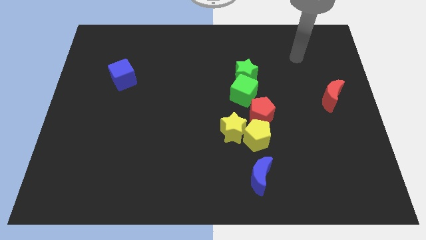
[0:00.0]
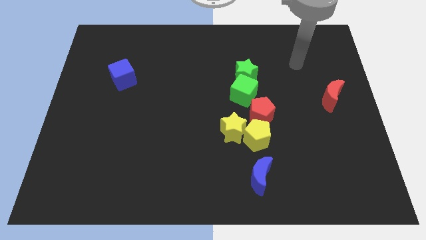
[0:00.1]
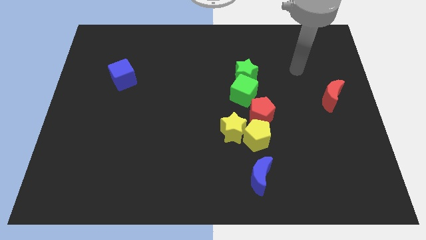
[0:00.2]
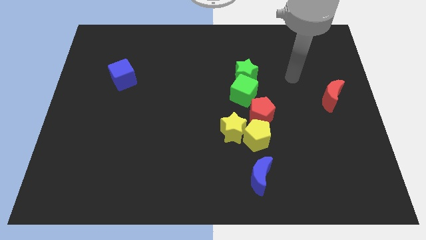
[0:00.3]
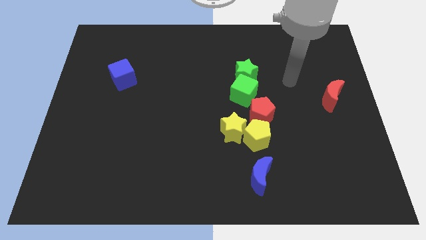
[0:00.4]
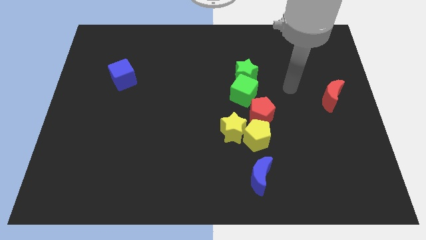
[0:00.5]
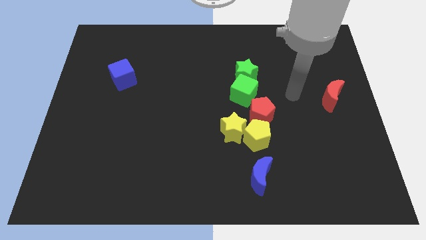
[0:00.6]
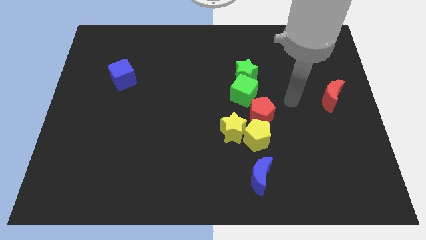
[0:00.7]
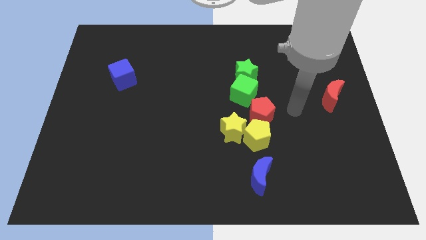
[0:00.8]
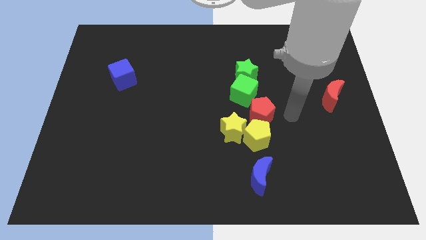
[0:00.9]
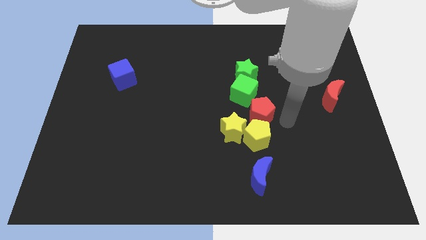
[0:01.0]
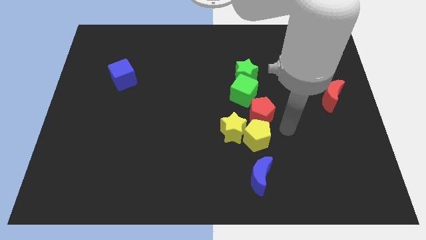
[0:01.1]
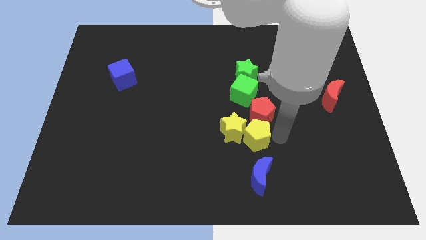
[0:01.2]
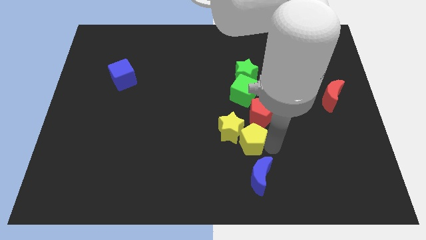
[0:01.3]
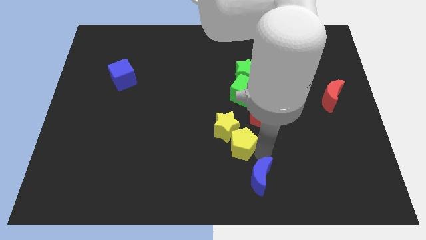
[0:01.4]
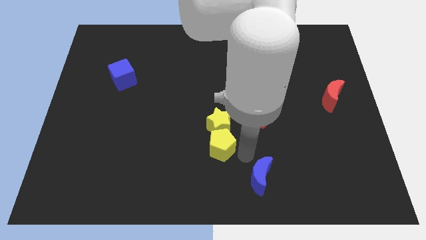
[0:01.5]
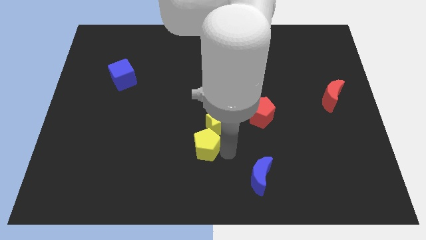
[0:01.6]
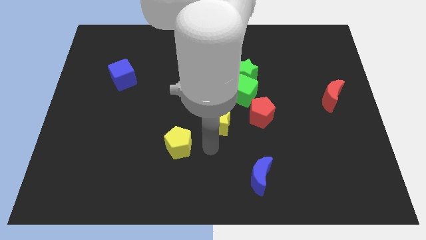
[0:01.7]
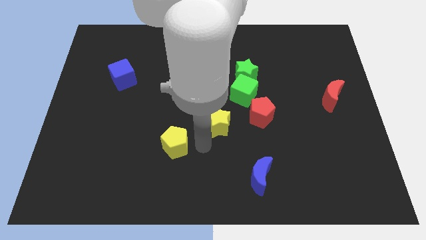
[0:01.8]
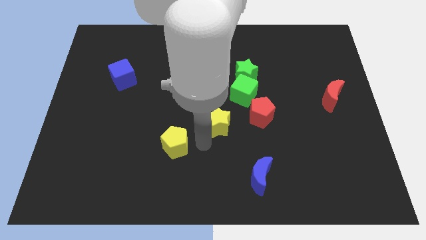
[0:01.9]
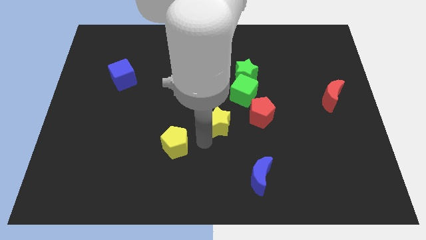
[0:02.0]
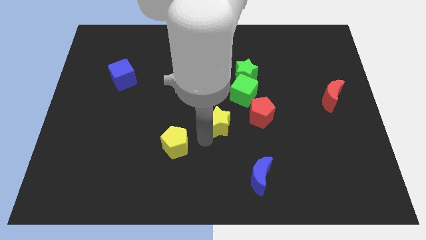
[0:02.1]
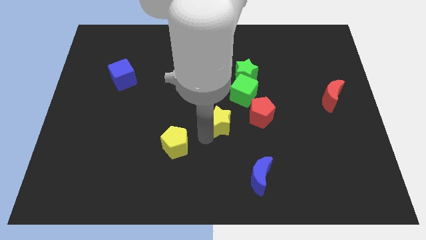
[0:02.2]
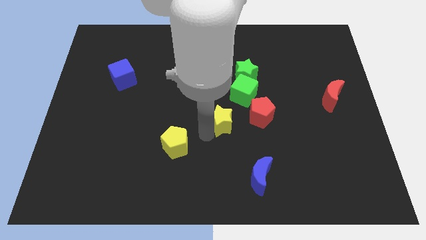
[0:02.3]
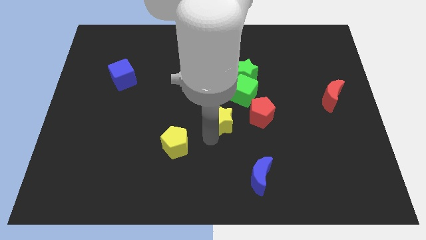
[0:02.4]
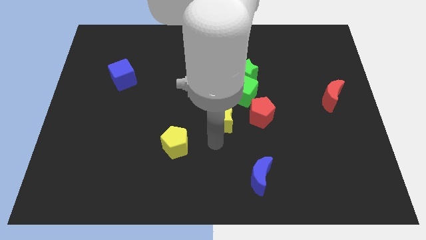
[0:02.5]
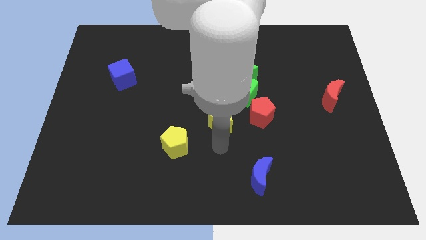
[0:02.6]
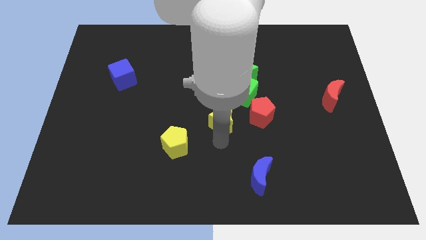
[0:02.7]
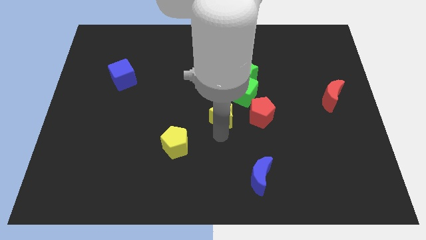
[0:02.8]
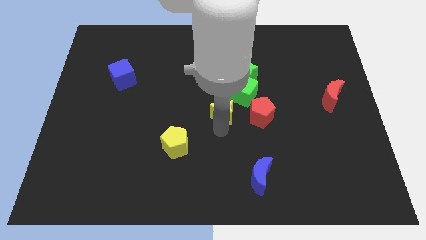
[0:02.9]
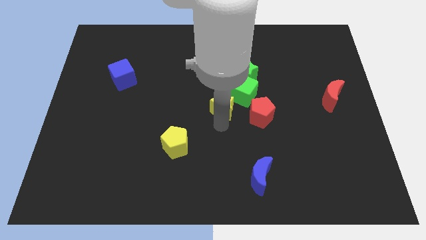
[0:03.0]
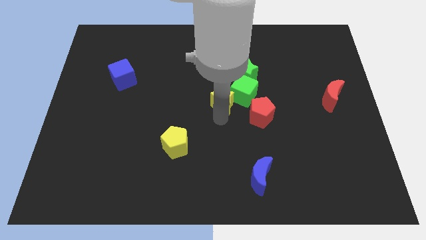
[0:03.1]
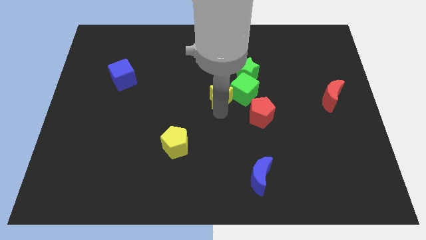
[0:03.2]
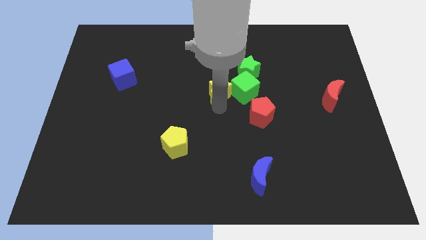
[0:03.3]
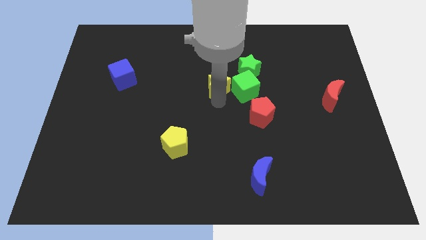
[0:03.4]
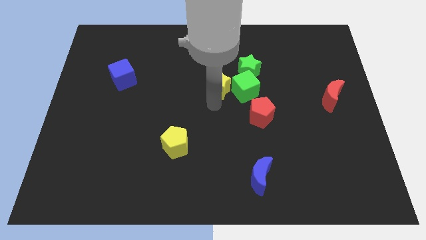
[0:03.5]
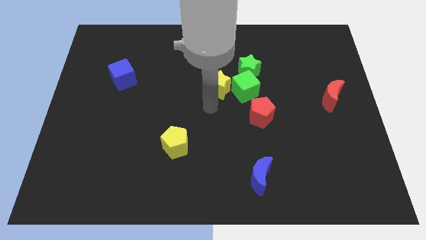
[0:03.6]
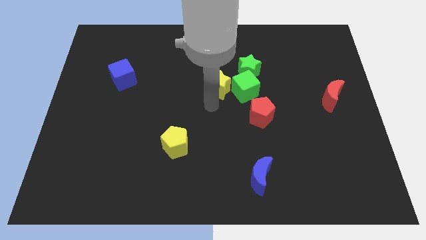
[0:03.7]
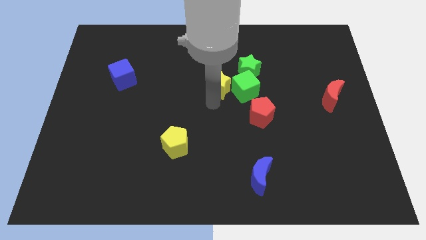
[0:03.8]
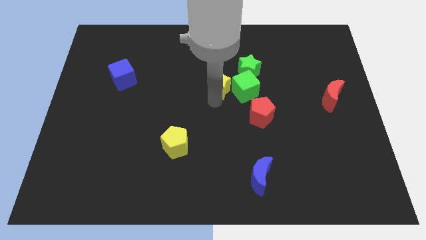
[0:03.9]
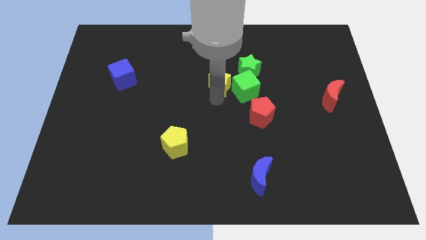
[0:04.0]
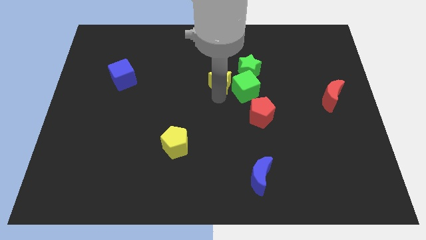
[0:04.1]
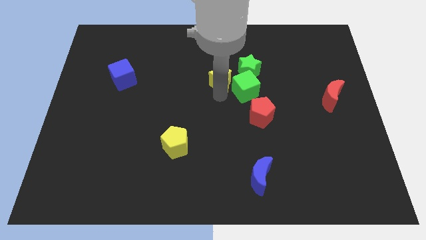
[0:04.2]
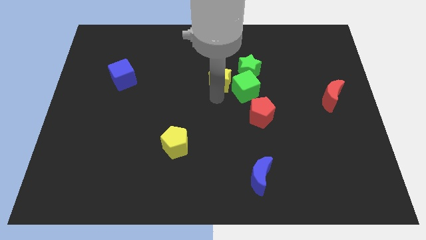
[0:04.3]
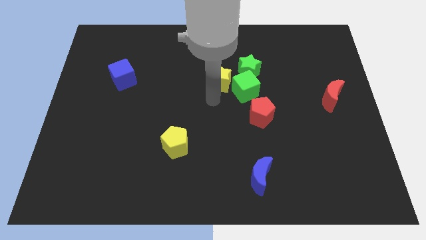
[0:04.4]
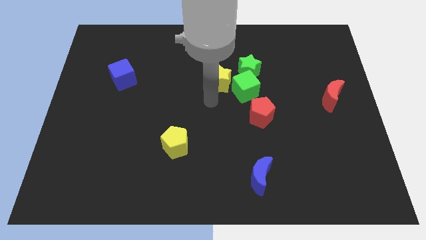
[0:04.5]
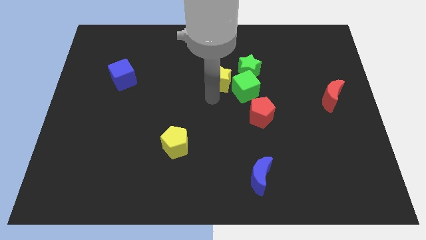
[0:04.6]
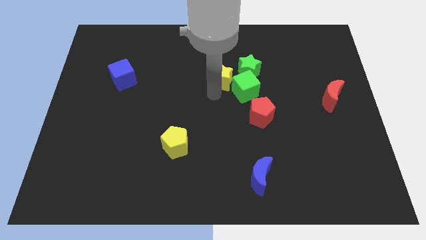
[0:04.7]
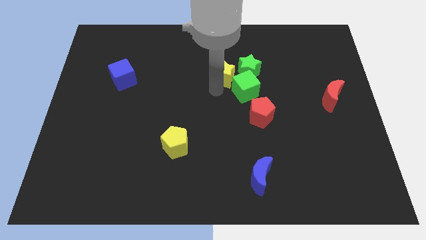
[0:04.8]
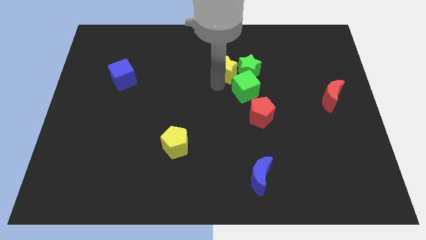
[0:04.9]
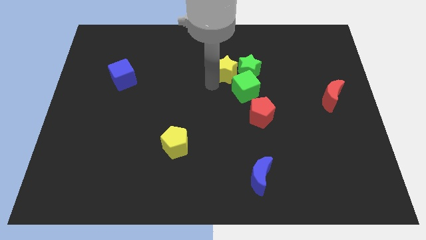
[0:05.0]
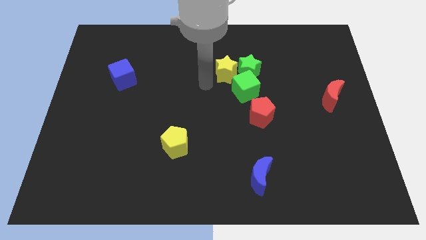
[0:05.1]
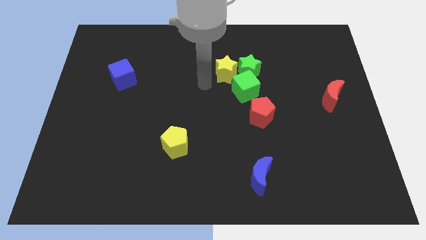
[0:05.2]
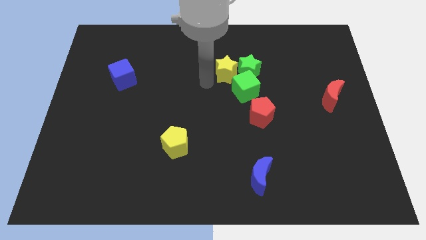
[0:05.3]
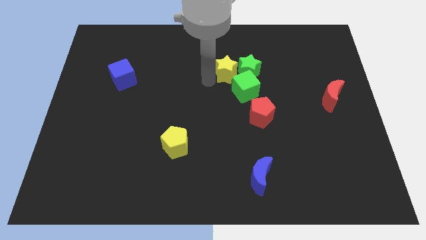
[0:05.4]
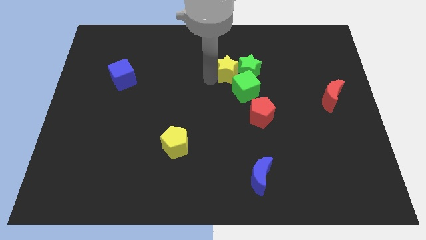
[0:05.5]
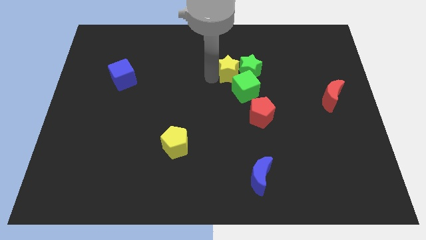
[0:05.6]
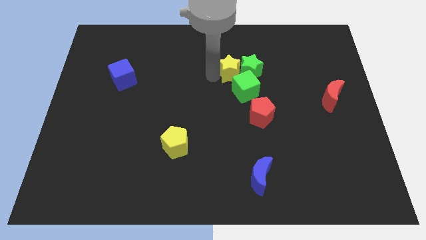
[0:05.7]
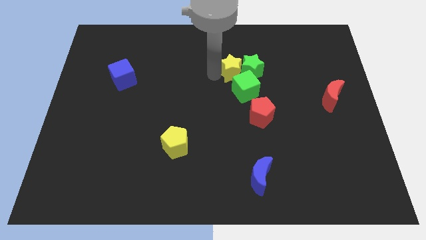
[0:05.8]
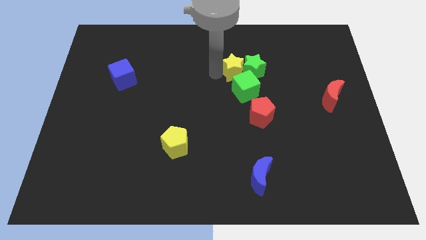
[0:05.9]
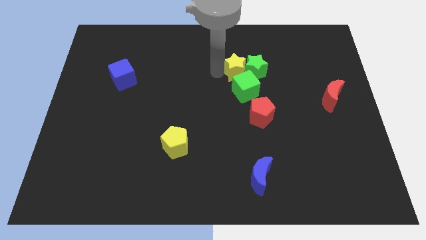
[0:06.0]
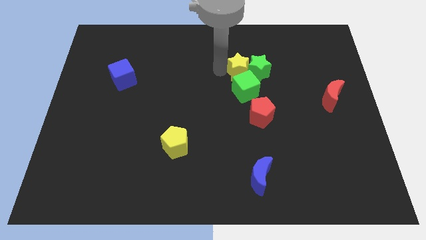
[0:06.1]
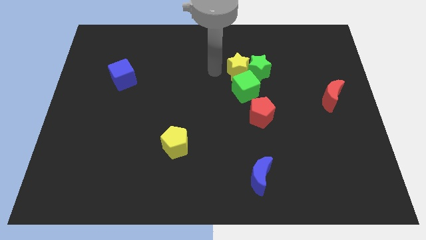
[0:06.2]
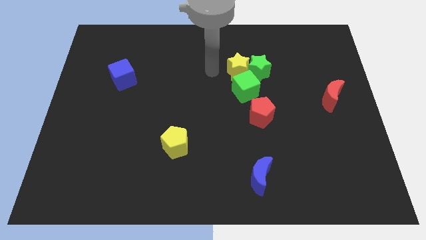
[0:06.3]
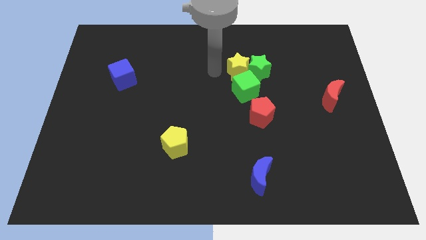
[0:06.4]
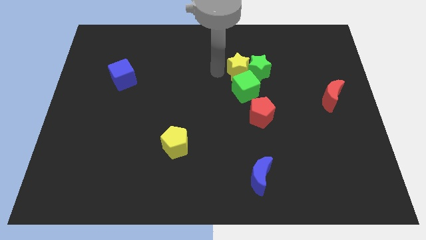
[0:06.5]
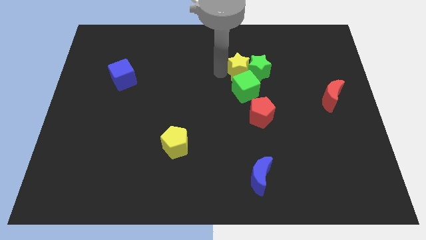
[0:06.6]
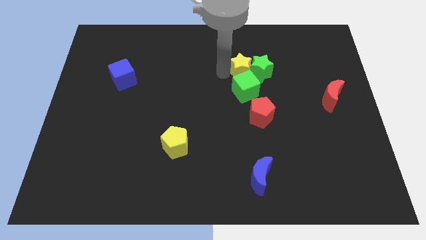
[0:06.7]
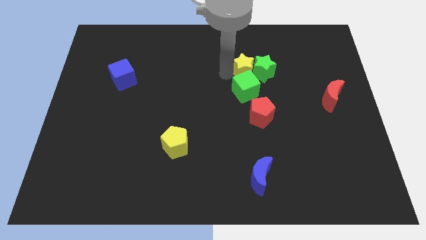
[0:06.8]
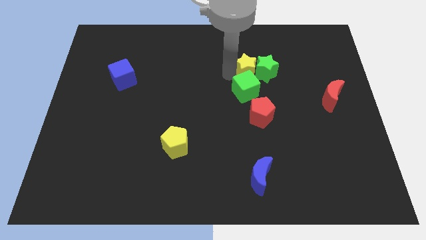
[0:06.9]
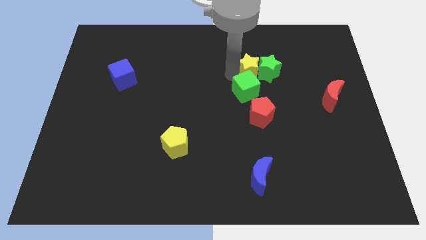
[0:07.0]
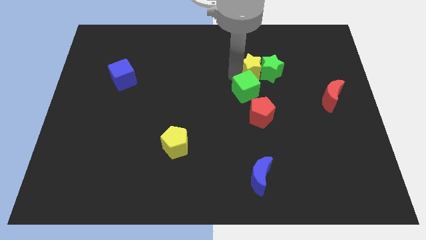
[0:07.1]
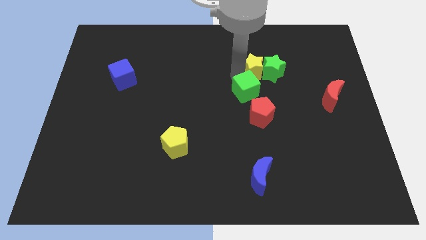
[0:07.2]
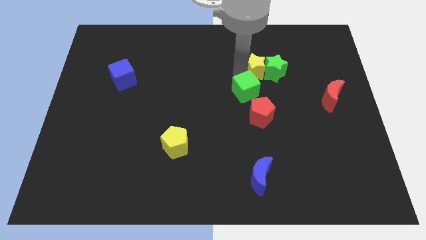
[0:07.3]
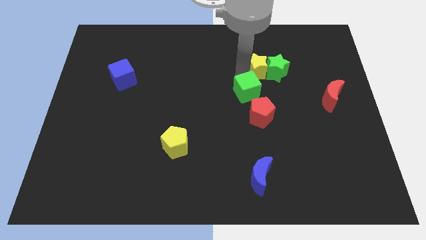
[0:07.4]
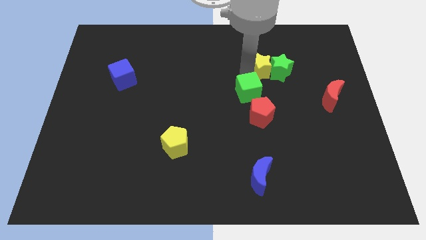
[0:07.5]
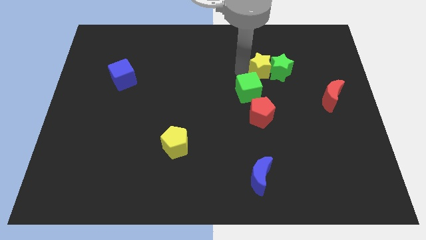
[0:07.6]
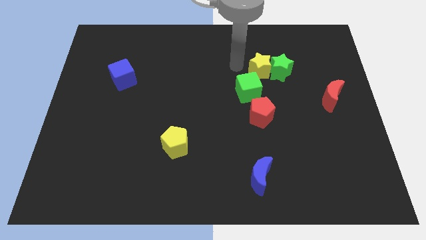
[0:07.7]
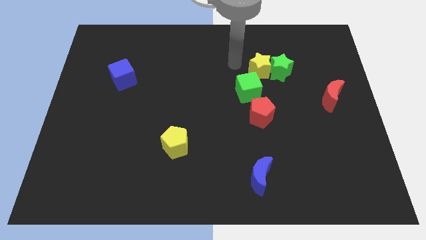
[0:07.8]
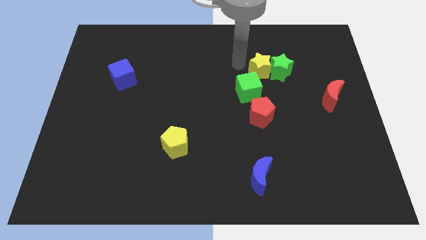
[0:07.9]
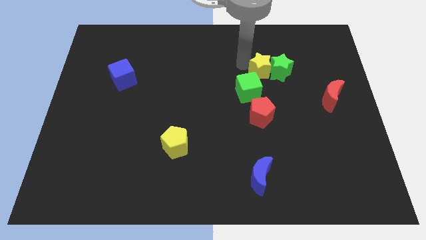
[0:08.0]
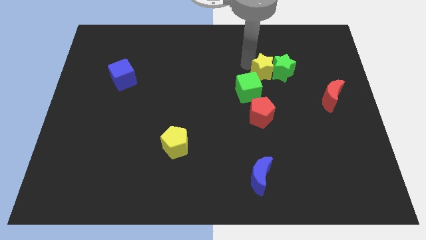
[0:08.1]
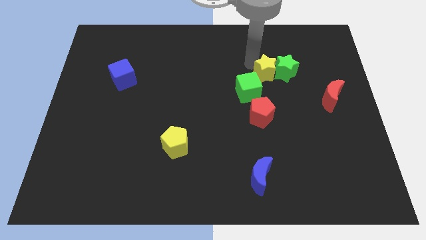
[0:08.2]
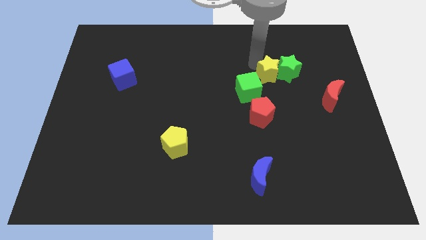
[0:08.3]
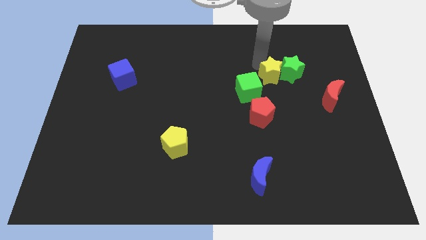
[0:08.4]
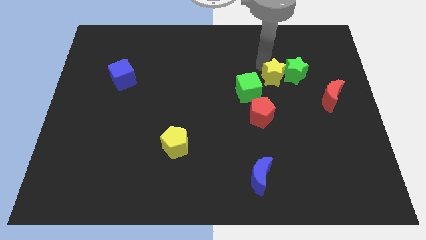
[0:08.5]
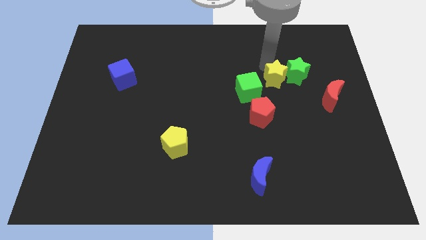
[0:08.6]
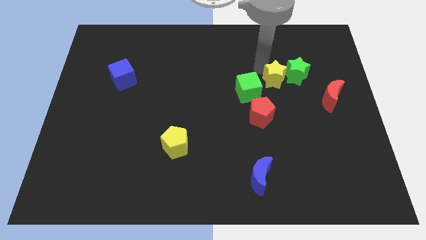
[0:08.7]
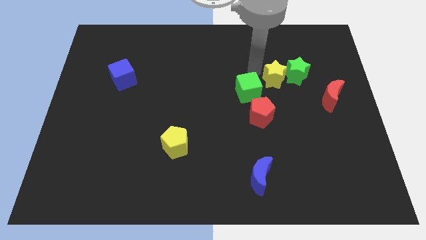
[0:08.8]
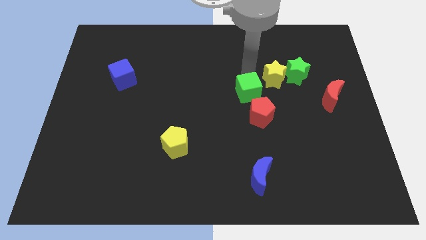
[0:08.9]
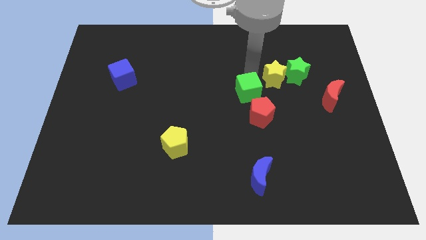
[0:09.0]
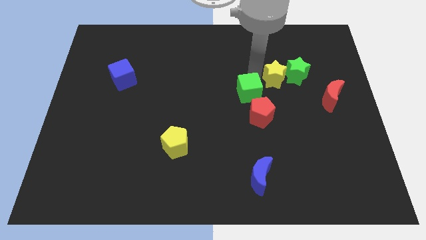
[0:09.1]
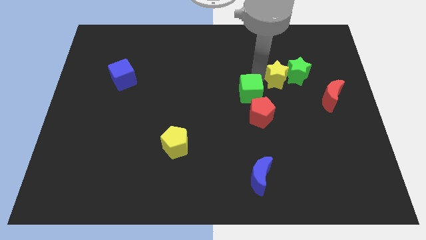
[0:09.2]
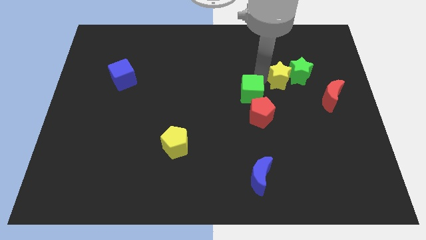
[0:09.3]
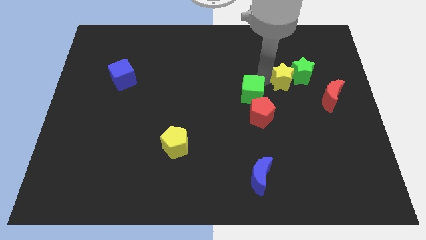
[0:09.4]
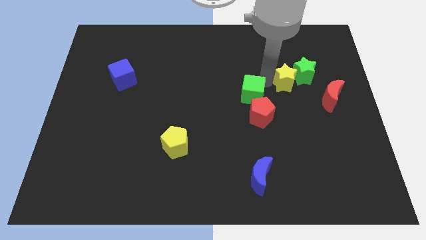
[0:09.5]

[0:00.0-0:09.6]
push the yellow star diagonally up and to the left of the red moon
